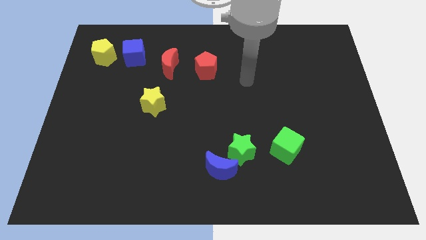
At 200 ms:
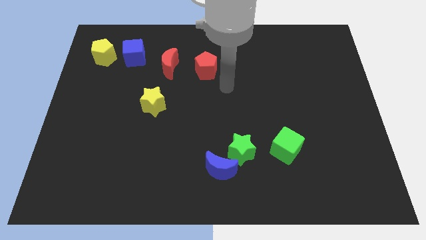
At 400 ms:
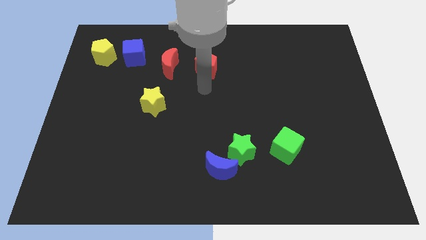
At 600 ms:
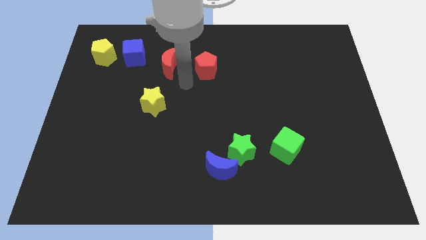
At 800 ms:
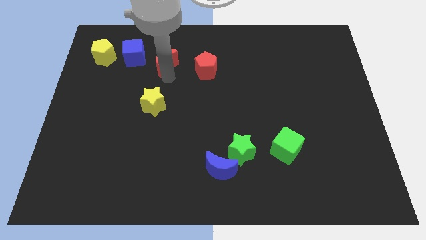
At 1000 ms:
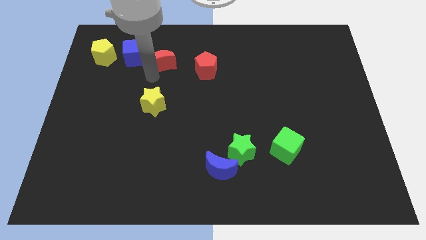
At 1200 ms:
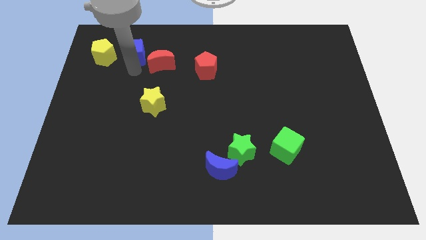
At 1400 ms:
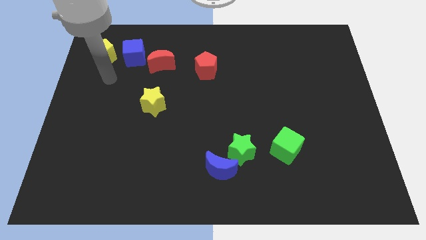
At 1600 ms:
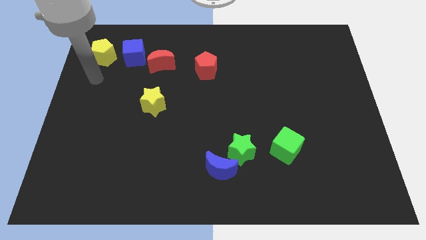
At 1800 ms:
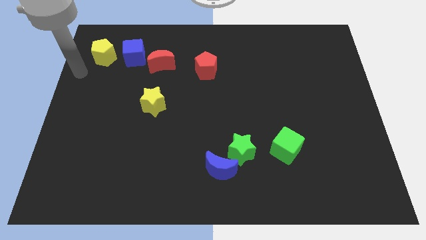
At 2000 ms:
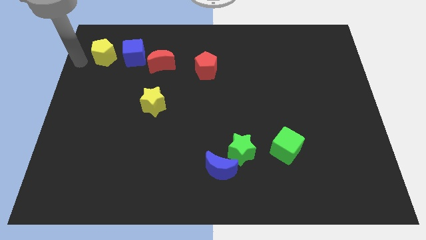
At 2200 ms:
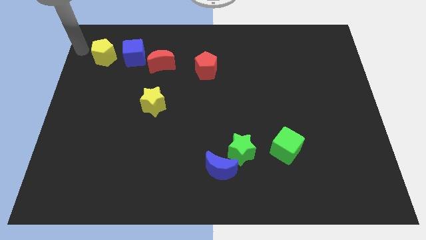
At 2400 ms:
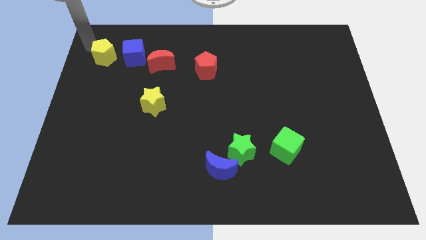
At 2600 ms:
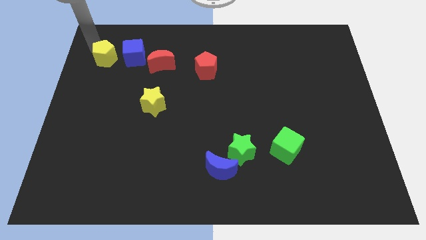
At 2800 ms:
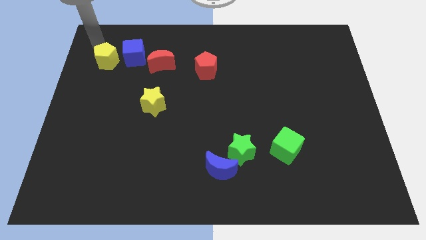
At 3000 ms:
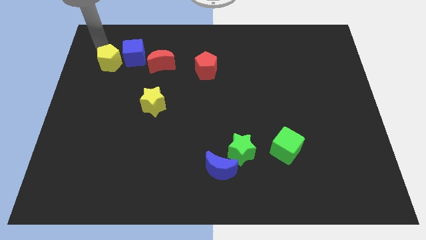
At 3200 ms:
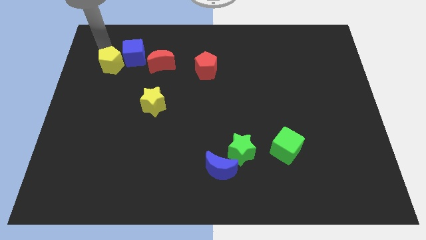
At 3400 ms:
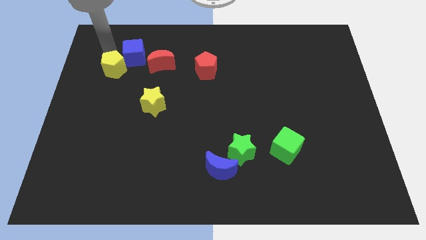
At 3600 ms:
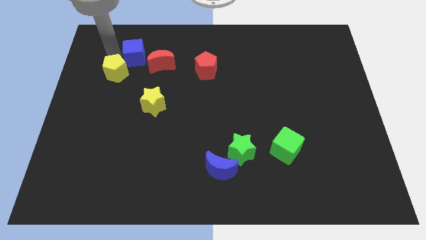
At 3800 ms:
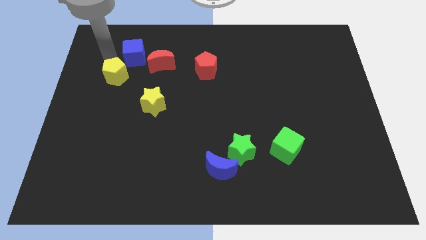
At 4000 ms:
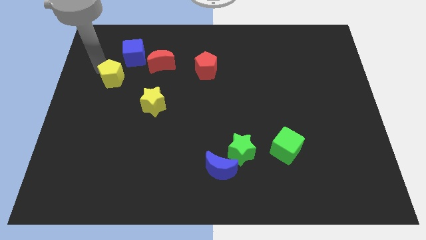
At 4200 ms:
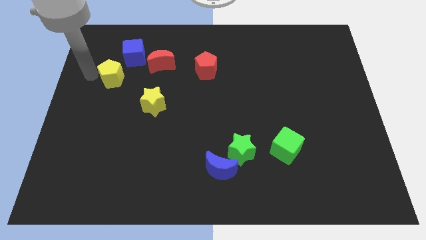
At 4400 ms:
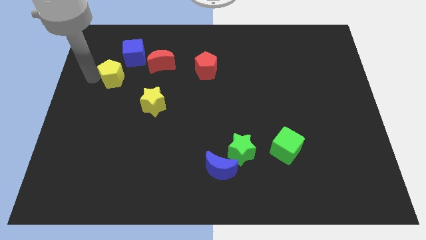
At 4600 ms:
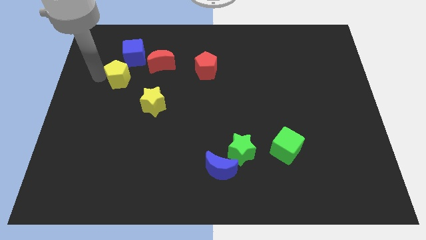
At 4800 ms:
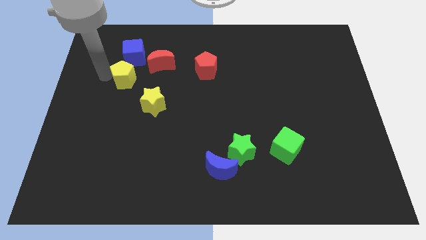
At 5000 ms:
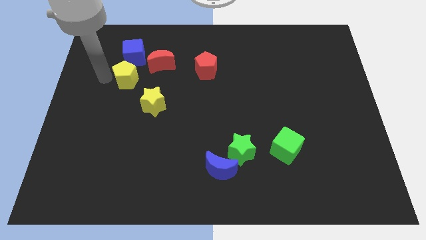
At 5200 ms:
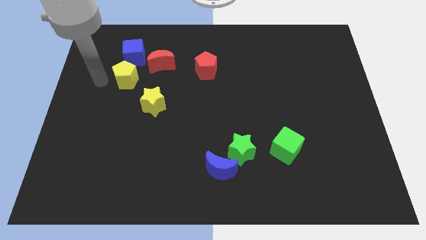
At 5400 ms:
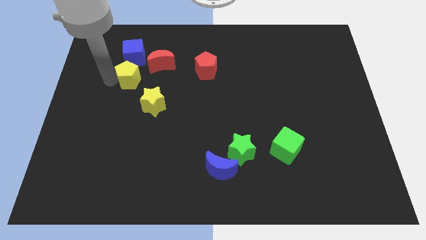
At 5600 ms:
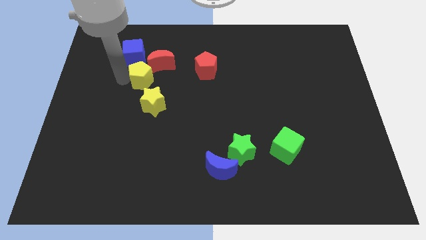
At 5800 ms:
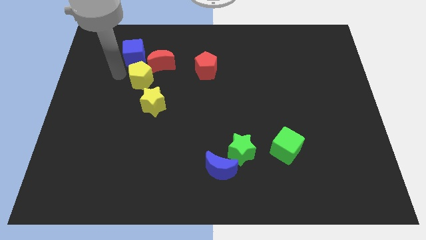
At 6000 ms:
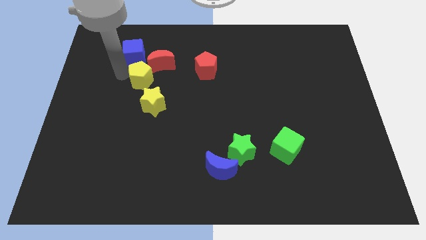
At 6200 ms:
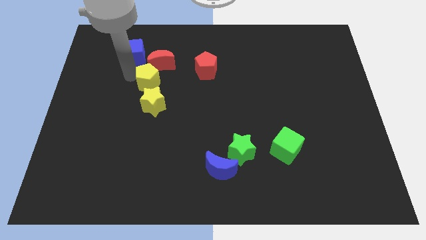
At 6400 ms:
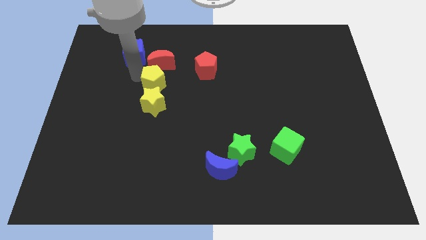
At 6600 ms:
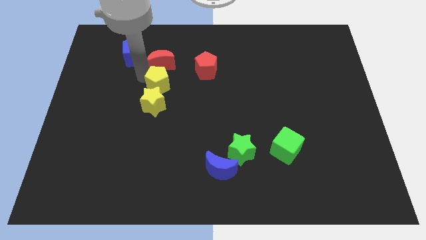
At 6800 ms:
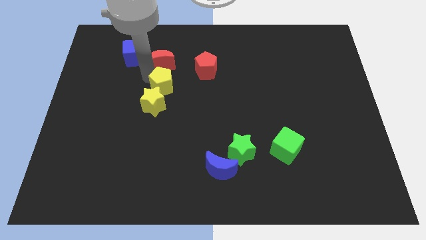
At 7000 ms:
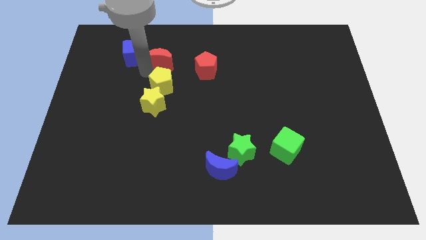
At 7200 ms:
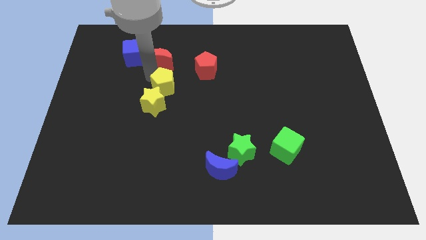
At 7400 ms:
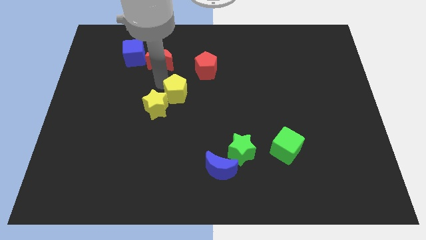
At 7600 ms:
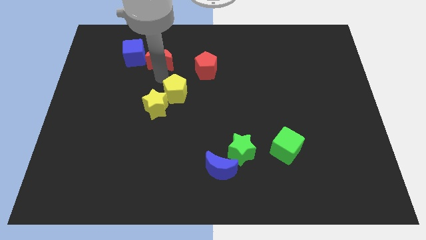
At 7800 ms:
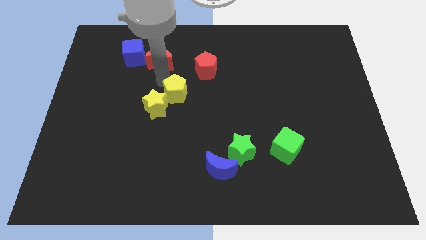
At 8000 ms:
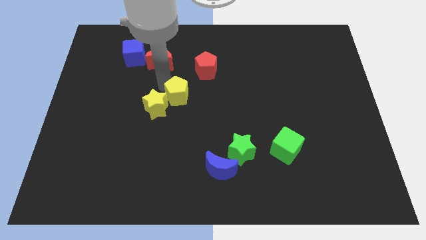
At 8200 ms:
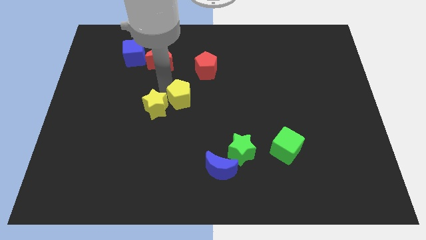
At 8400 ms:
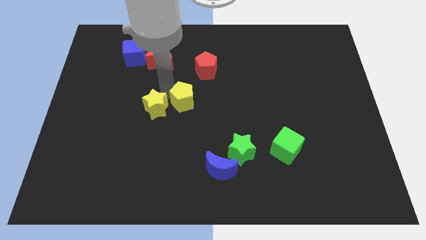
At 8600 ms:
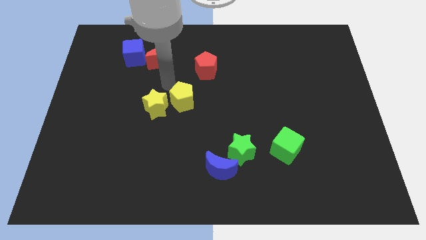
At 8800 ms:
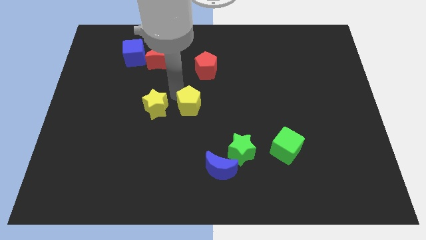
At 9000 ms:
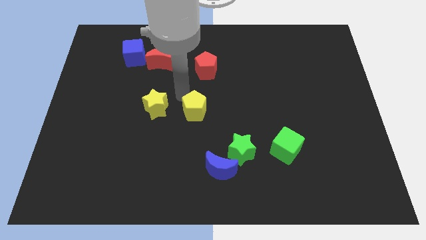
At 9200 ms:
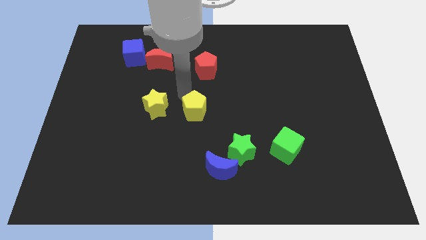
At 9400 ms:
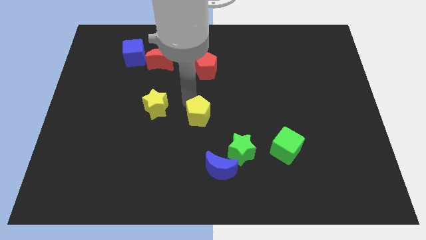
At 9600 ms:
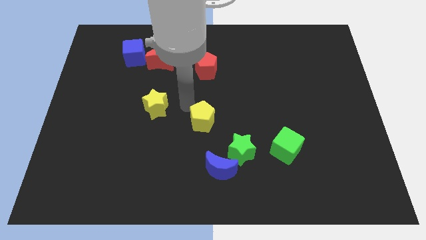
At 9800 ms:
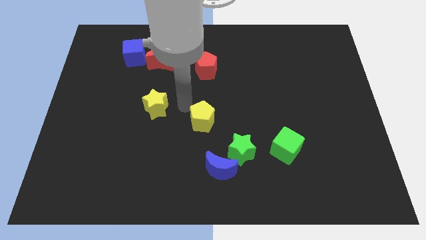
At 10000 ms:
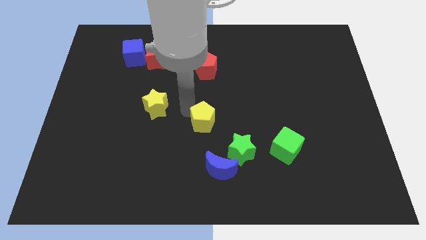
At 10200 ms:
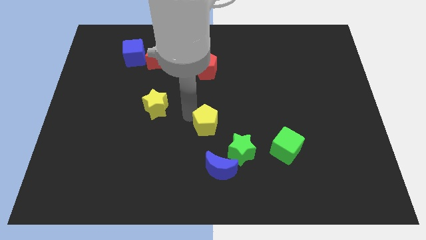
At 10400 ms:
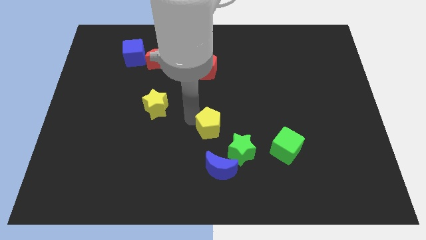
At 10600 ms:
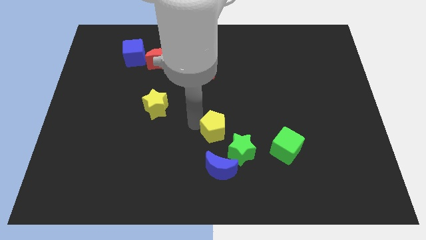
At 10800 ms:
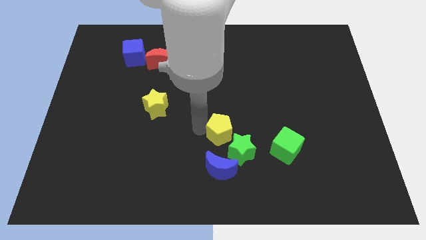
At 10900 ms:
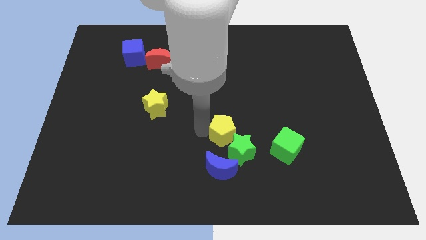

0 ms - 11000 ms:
push the yellow pentagon close to the green star

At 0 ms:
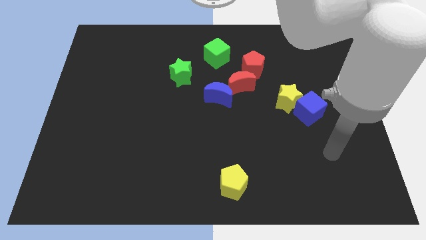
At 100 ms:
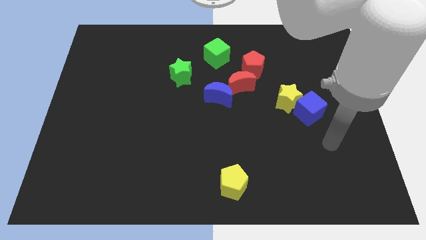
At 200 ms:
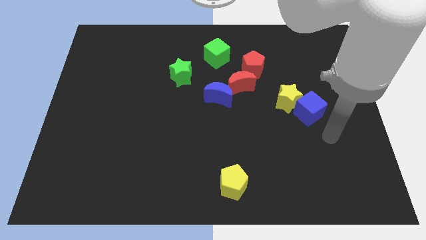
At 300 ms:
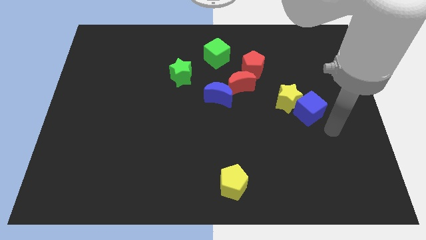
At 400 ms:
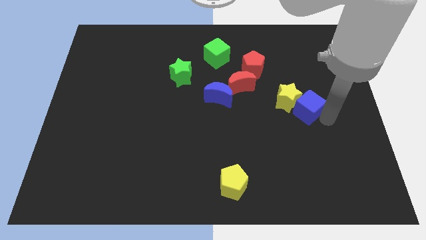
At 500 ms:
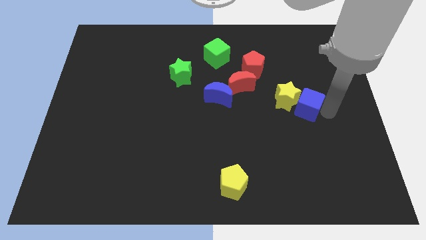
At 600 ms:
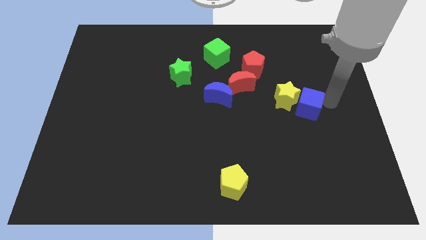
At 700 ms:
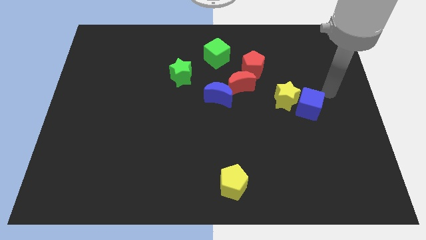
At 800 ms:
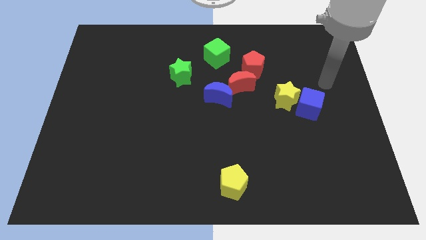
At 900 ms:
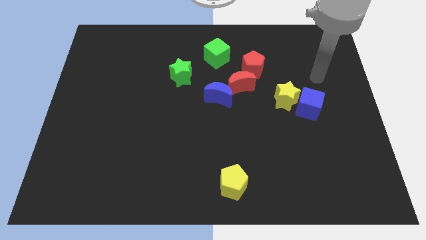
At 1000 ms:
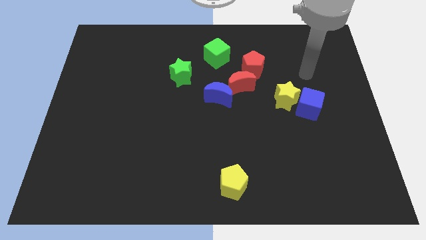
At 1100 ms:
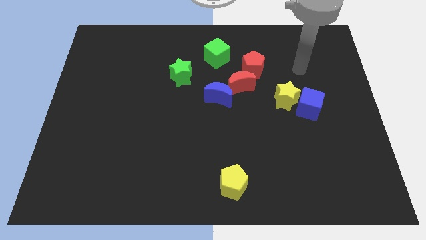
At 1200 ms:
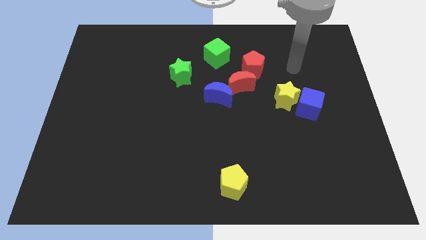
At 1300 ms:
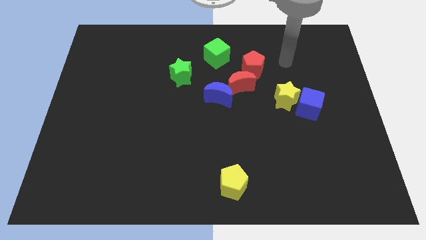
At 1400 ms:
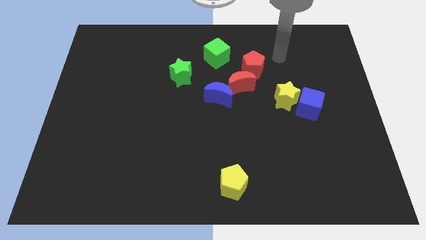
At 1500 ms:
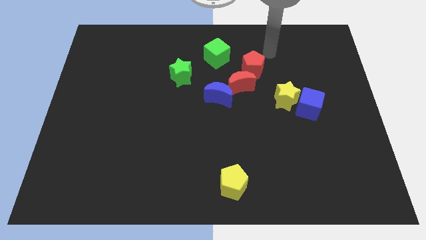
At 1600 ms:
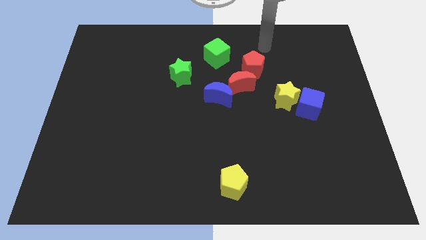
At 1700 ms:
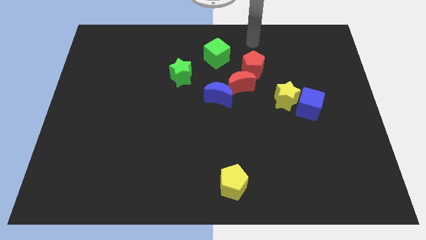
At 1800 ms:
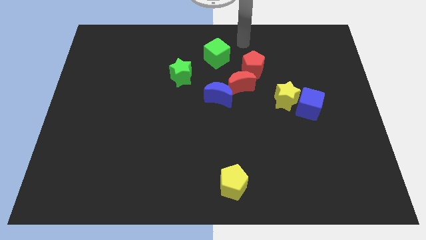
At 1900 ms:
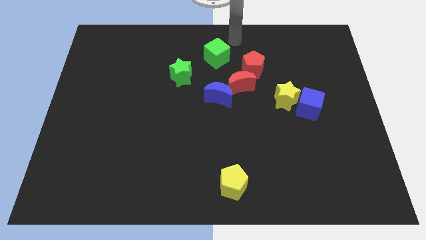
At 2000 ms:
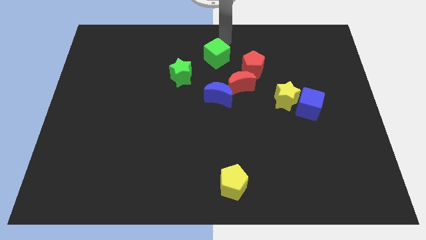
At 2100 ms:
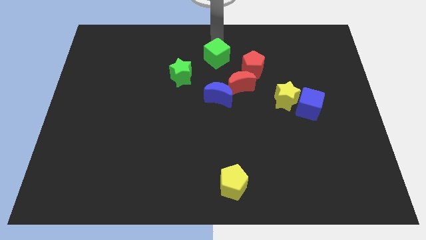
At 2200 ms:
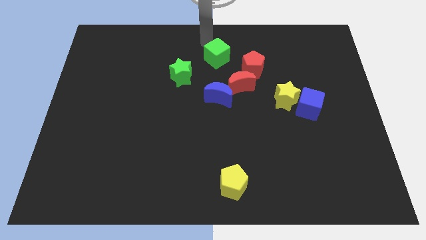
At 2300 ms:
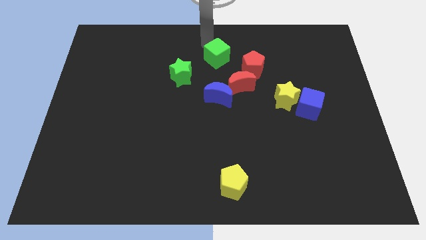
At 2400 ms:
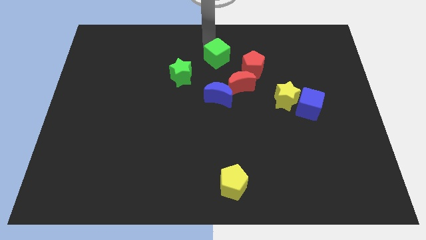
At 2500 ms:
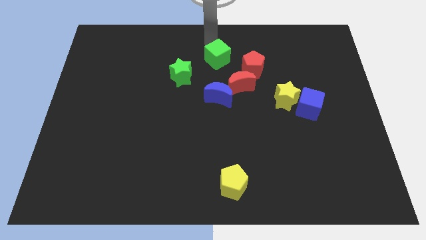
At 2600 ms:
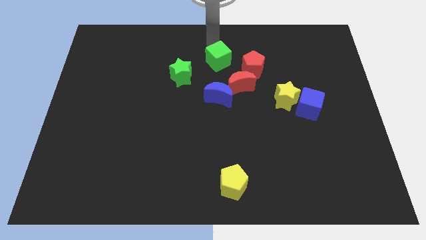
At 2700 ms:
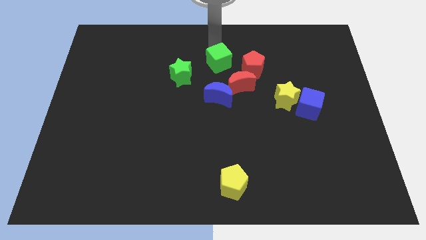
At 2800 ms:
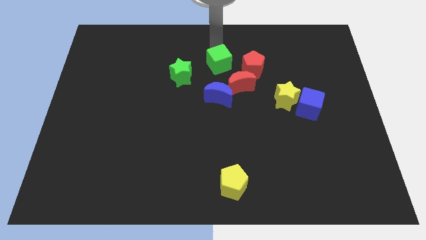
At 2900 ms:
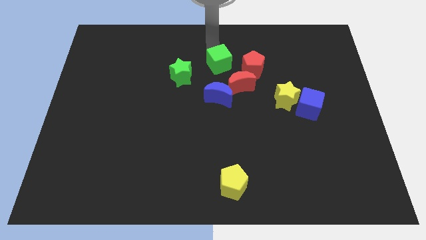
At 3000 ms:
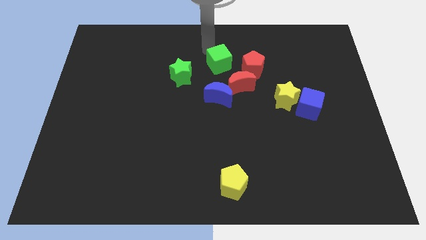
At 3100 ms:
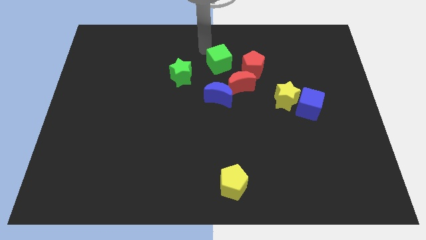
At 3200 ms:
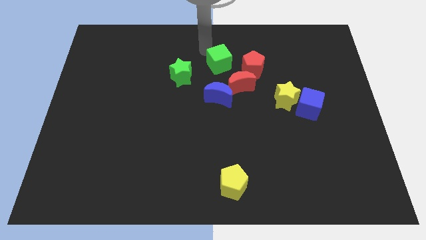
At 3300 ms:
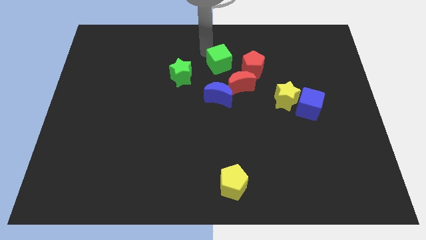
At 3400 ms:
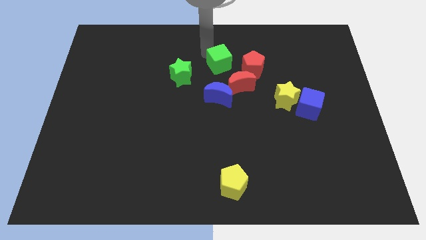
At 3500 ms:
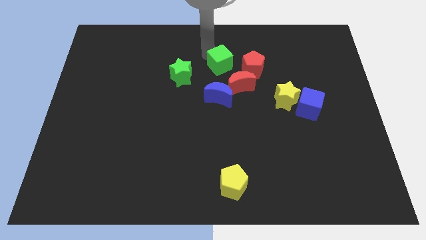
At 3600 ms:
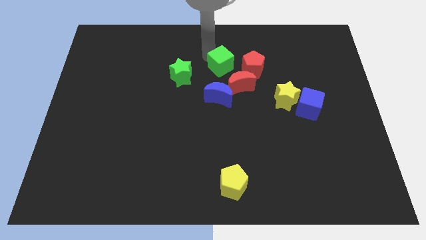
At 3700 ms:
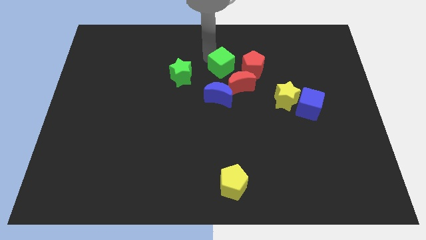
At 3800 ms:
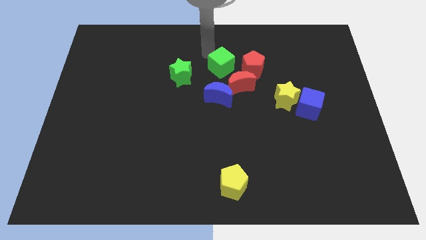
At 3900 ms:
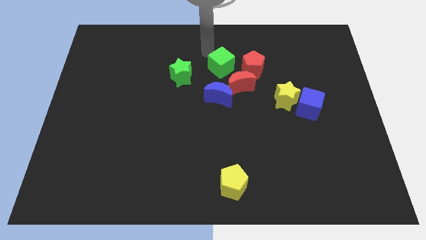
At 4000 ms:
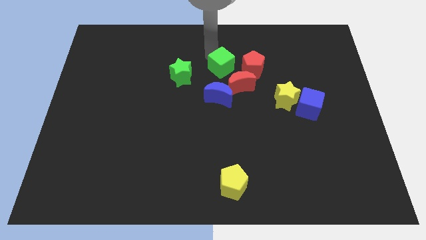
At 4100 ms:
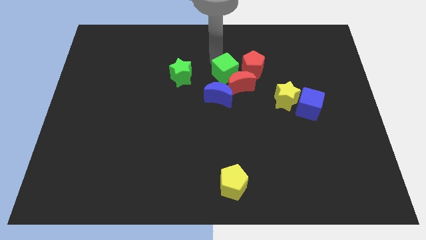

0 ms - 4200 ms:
put the green cube towards the red moon
